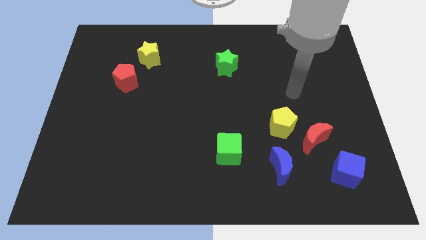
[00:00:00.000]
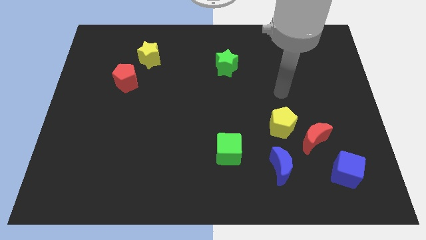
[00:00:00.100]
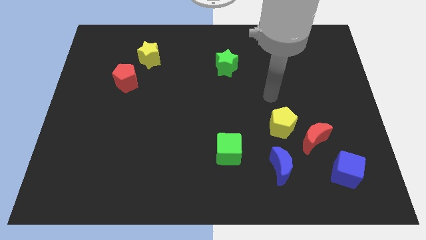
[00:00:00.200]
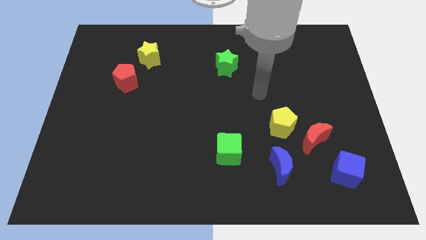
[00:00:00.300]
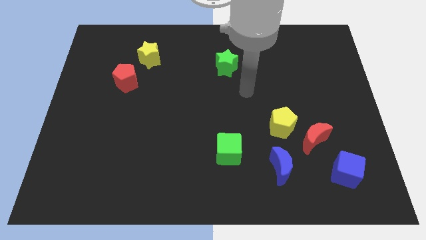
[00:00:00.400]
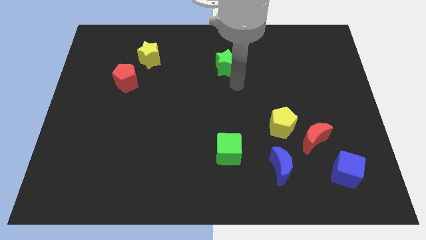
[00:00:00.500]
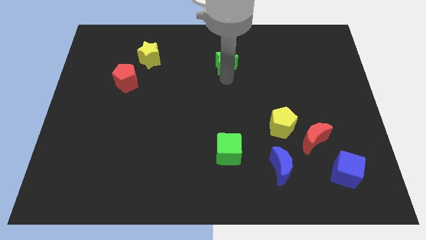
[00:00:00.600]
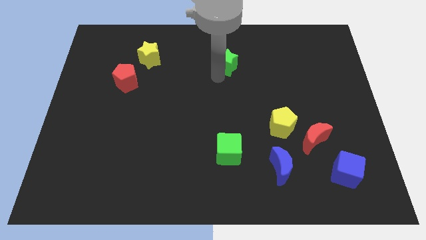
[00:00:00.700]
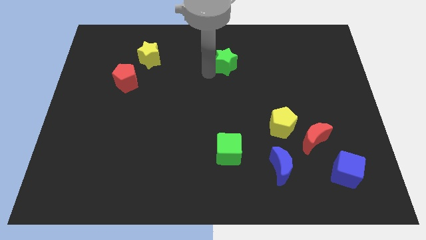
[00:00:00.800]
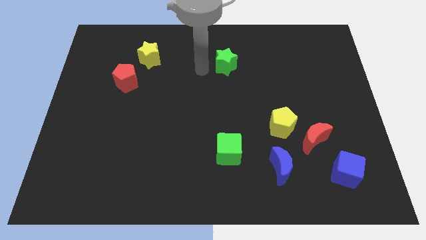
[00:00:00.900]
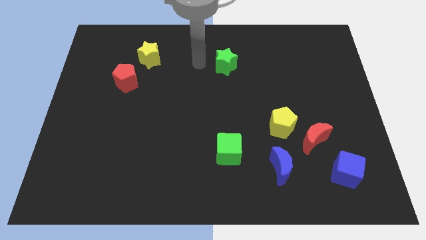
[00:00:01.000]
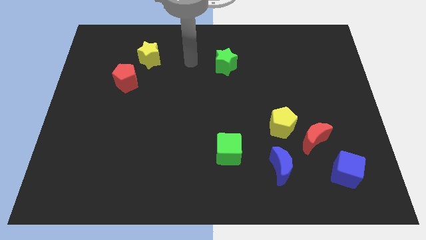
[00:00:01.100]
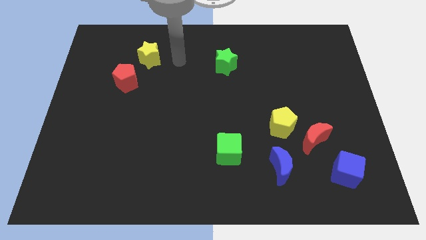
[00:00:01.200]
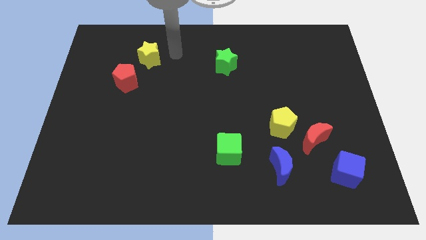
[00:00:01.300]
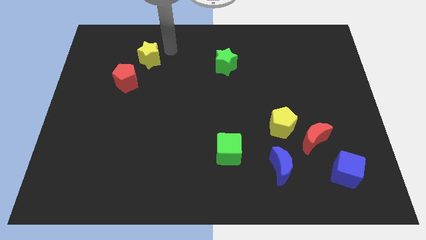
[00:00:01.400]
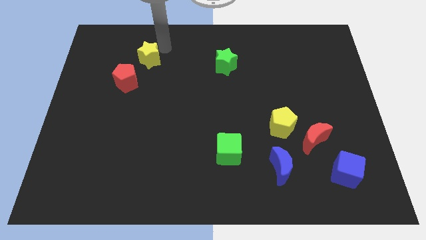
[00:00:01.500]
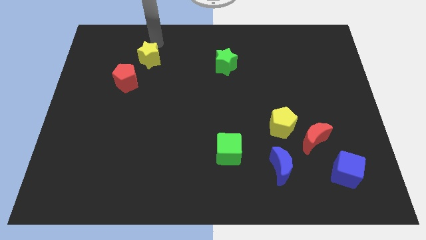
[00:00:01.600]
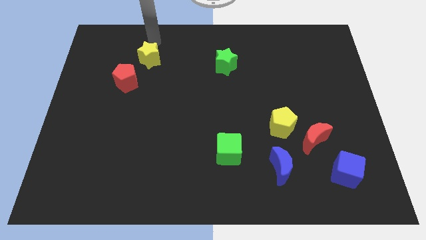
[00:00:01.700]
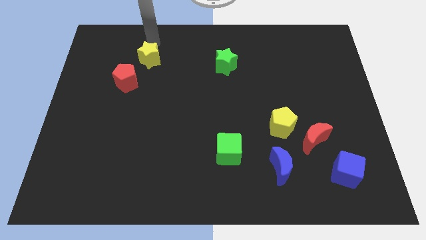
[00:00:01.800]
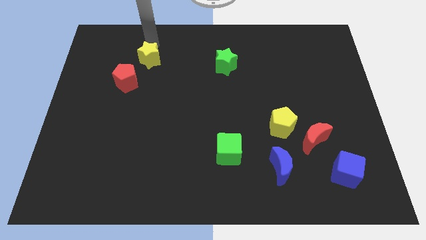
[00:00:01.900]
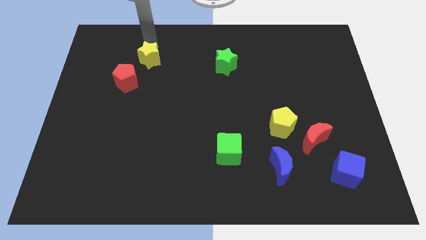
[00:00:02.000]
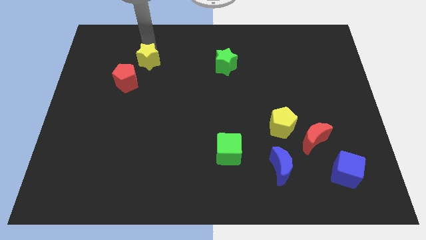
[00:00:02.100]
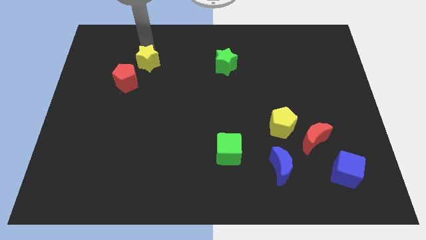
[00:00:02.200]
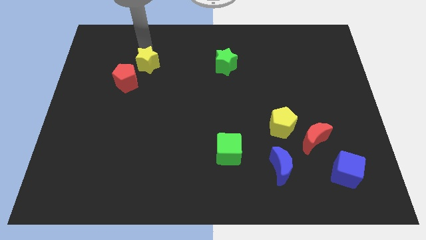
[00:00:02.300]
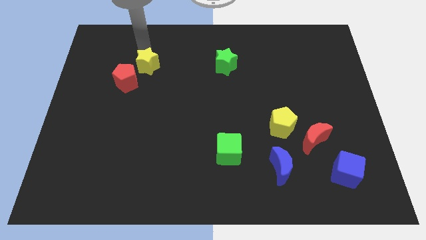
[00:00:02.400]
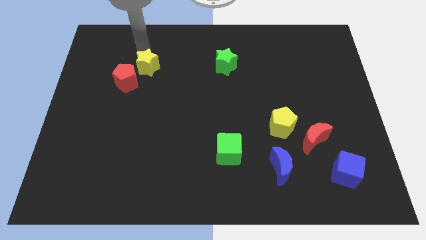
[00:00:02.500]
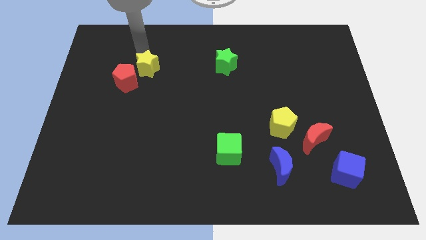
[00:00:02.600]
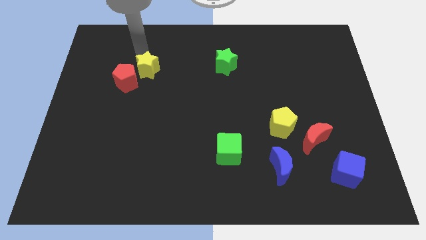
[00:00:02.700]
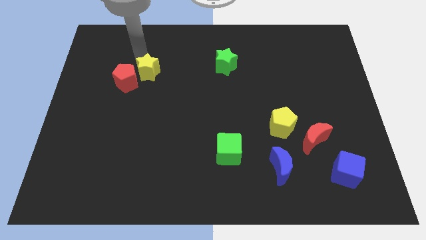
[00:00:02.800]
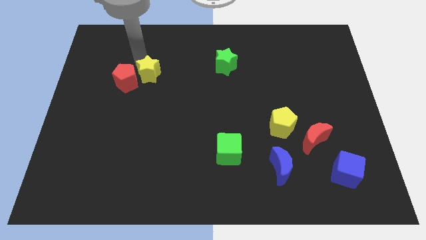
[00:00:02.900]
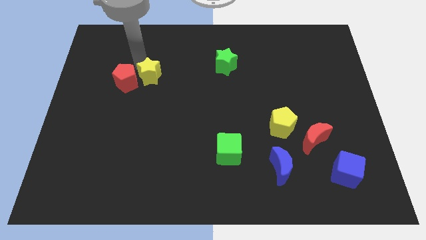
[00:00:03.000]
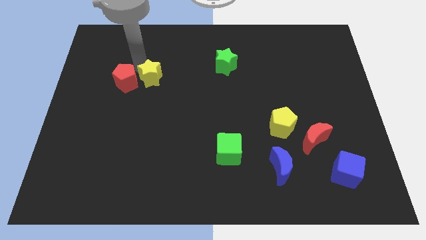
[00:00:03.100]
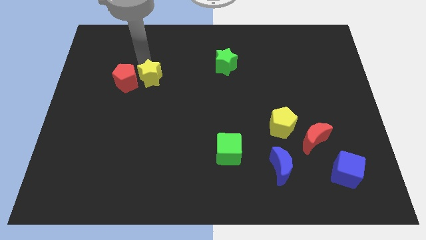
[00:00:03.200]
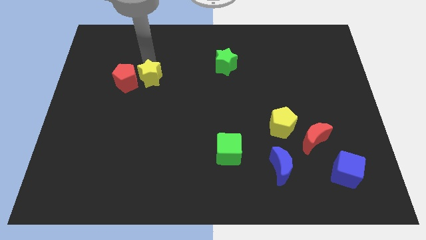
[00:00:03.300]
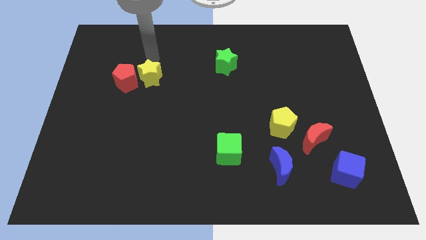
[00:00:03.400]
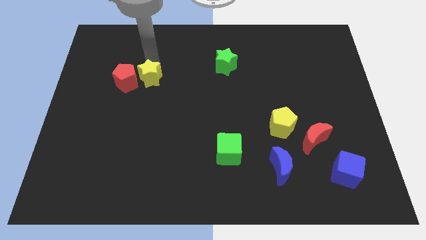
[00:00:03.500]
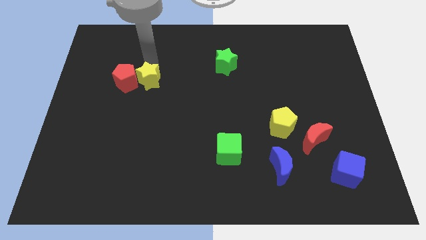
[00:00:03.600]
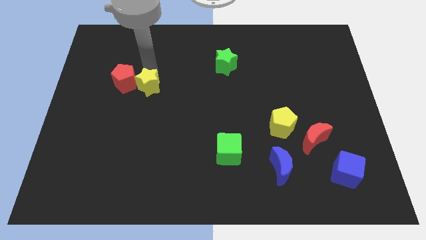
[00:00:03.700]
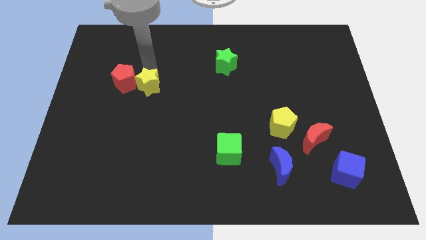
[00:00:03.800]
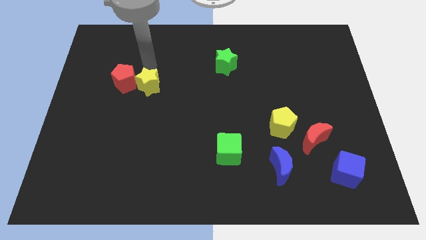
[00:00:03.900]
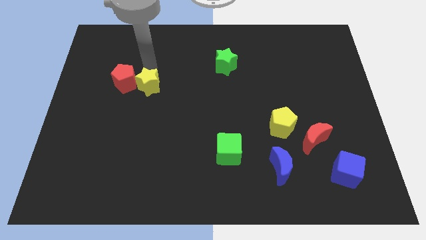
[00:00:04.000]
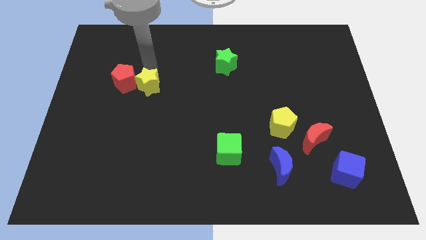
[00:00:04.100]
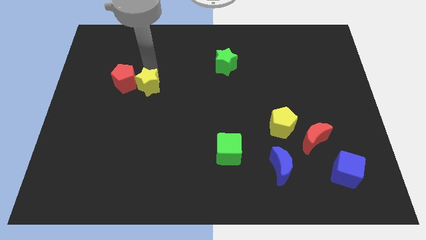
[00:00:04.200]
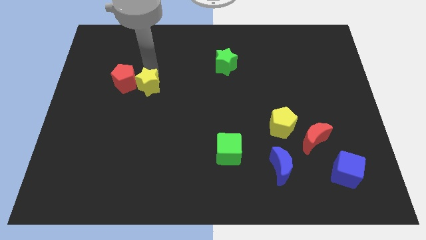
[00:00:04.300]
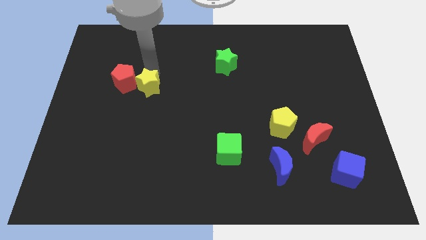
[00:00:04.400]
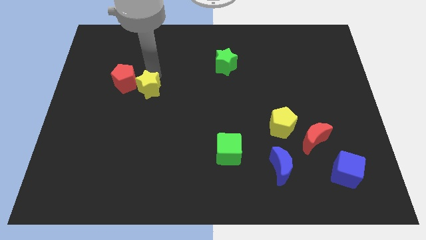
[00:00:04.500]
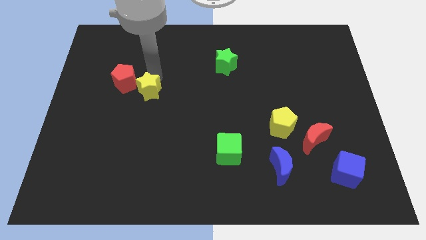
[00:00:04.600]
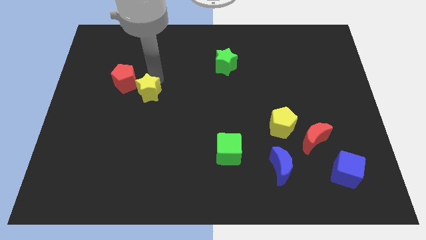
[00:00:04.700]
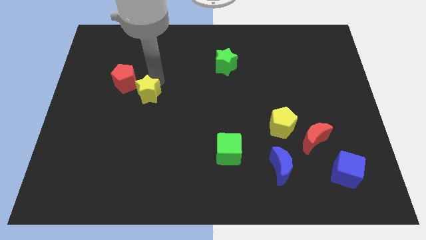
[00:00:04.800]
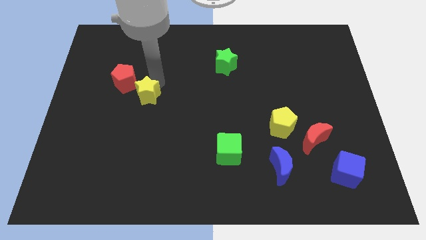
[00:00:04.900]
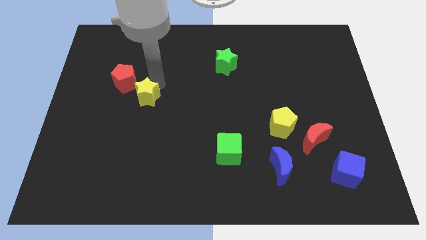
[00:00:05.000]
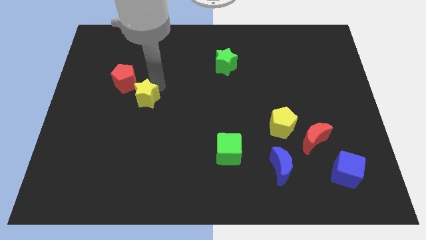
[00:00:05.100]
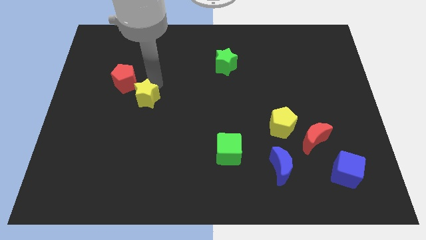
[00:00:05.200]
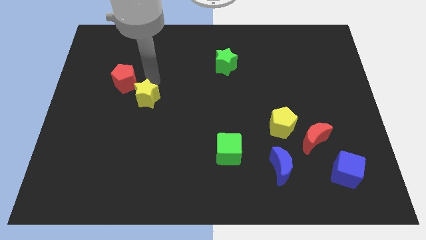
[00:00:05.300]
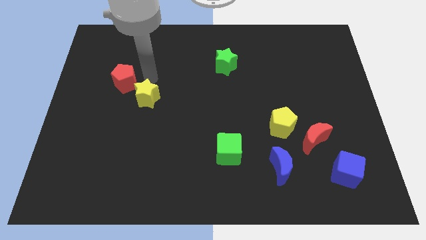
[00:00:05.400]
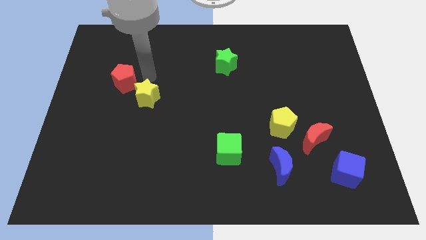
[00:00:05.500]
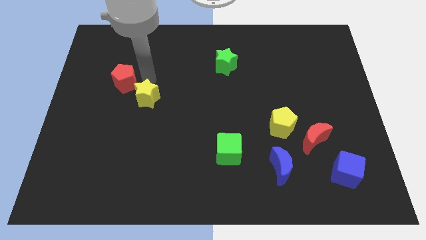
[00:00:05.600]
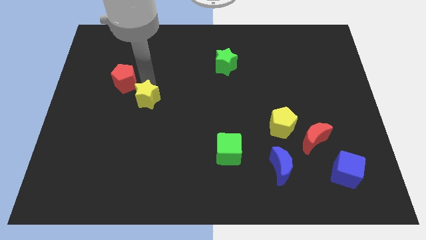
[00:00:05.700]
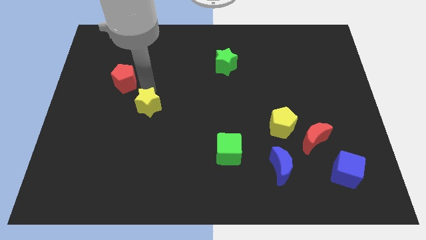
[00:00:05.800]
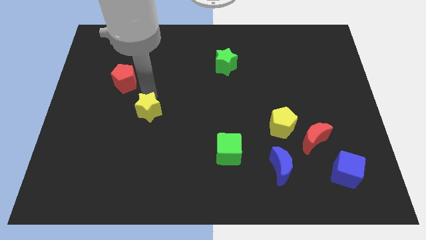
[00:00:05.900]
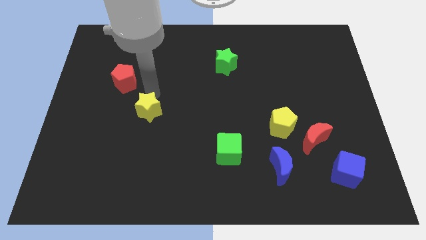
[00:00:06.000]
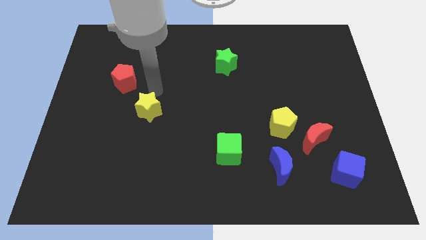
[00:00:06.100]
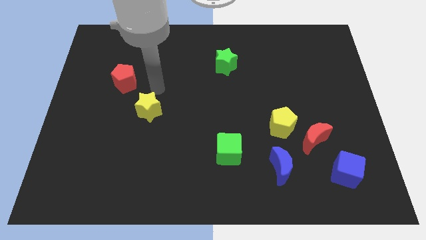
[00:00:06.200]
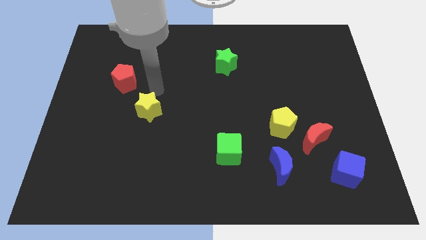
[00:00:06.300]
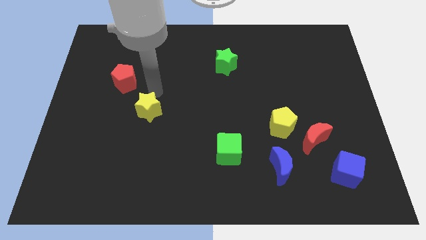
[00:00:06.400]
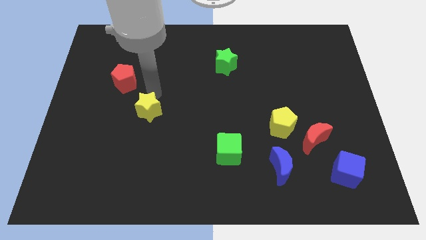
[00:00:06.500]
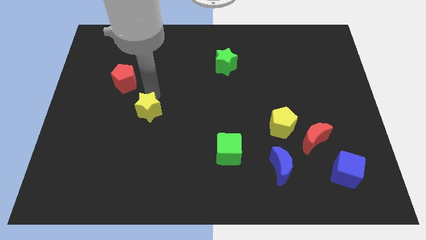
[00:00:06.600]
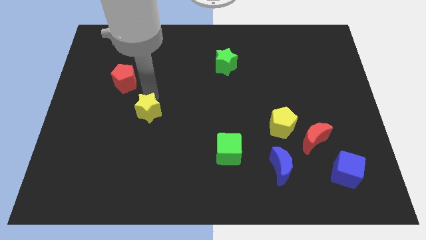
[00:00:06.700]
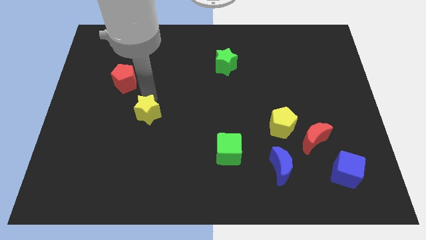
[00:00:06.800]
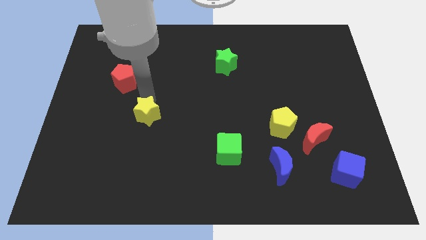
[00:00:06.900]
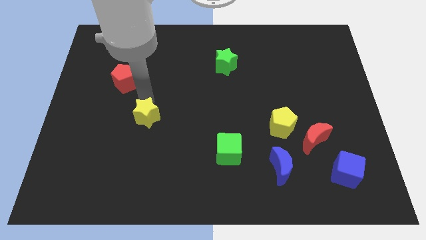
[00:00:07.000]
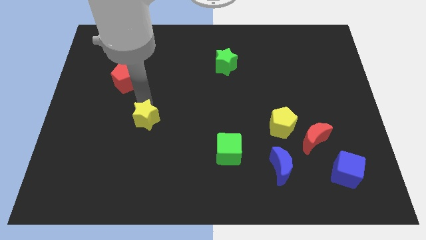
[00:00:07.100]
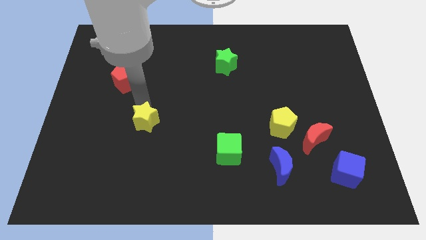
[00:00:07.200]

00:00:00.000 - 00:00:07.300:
move the yellow star downwards

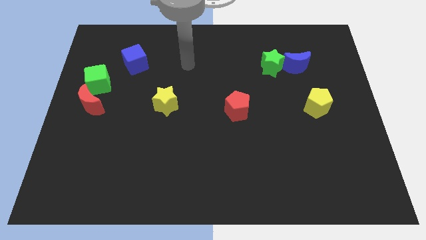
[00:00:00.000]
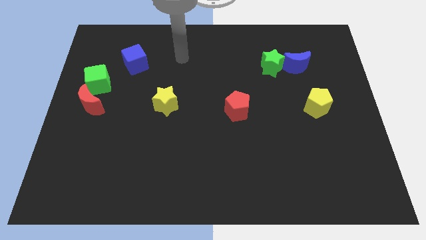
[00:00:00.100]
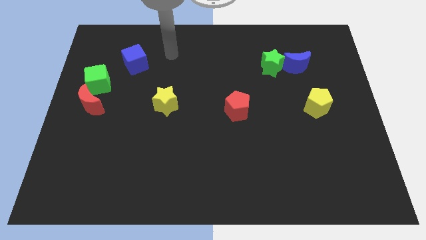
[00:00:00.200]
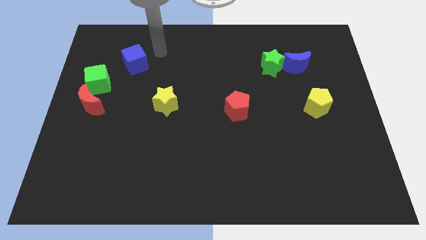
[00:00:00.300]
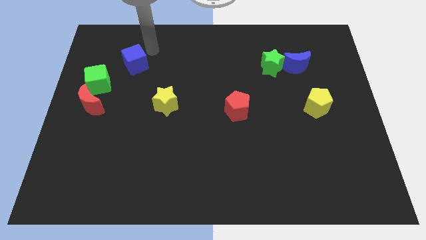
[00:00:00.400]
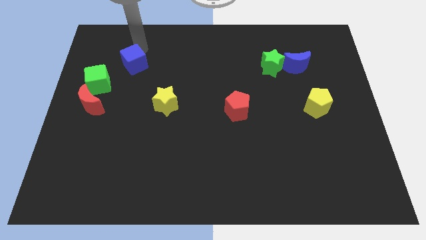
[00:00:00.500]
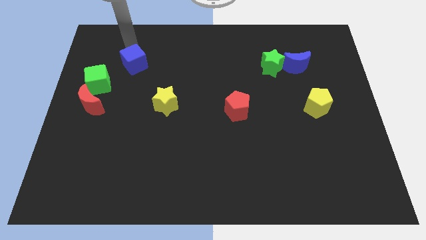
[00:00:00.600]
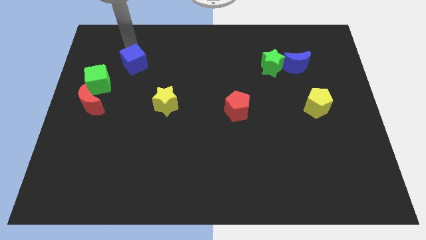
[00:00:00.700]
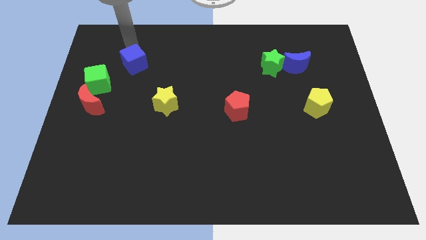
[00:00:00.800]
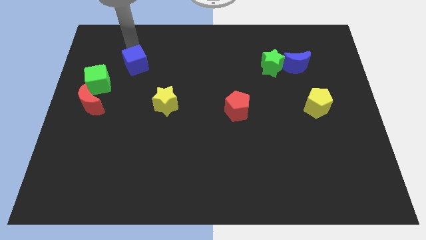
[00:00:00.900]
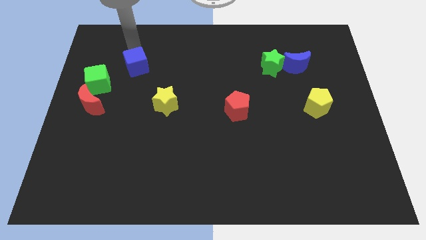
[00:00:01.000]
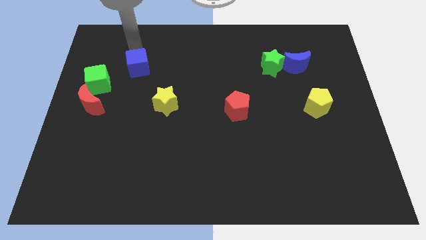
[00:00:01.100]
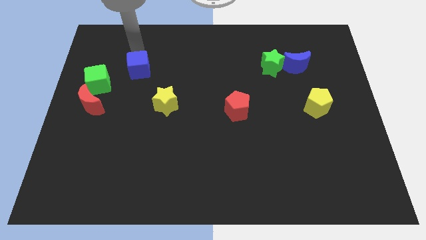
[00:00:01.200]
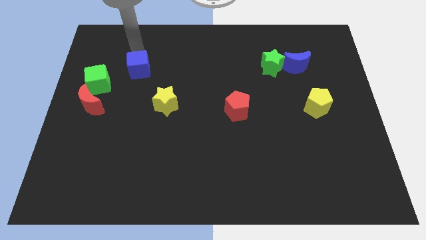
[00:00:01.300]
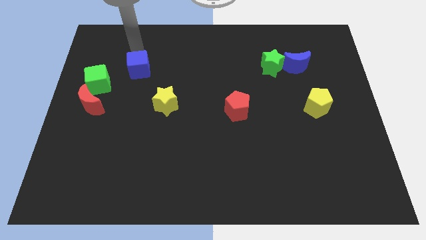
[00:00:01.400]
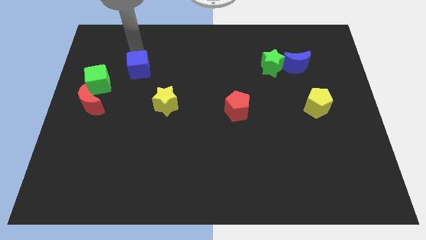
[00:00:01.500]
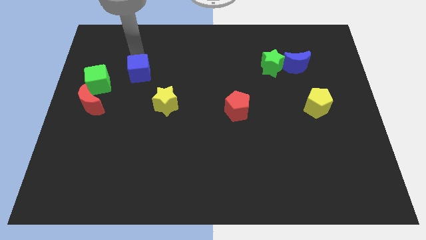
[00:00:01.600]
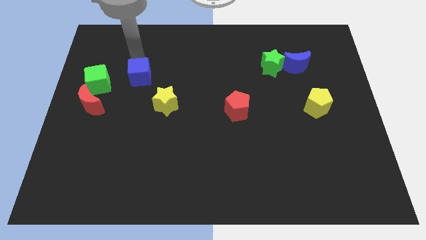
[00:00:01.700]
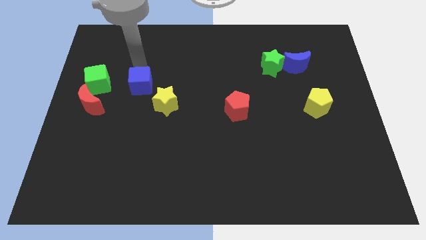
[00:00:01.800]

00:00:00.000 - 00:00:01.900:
slightly slide the blue cube downwards
